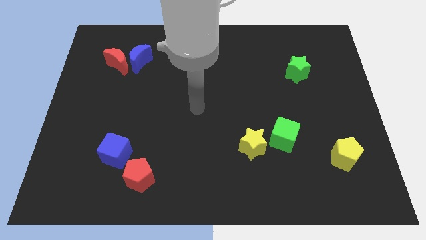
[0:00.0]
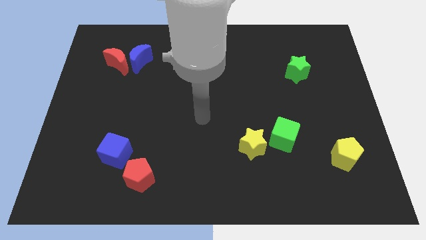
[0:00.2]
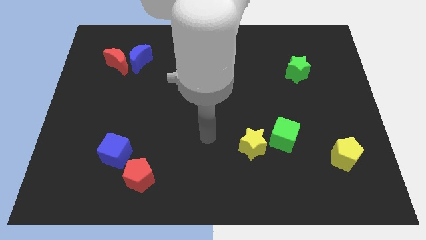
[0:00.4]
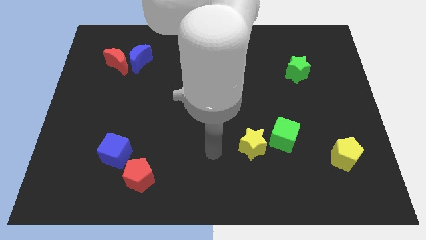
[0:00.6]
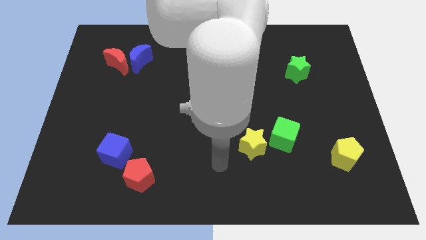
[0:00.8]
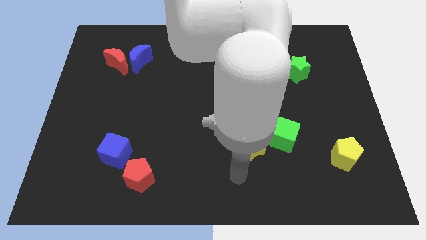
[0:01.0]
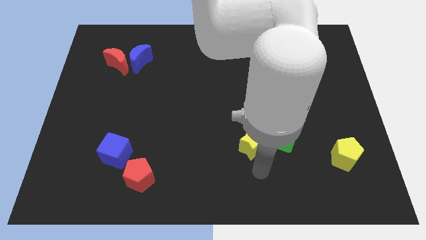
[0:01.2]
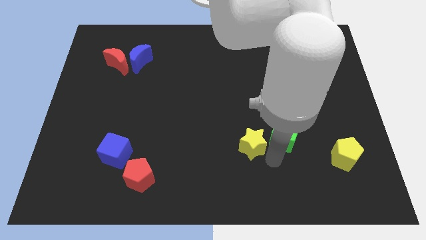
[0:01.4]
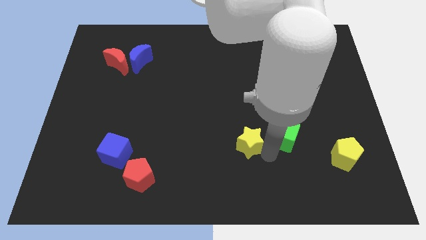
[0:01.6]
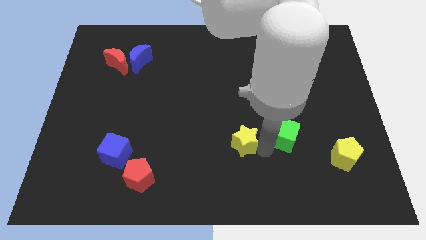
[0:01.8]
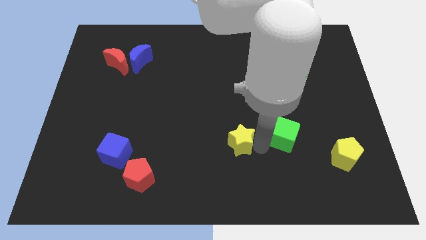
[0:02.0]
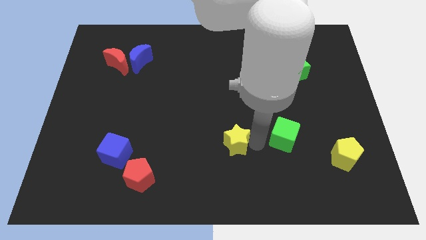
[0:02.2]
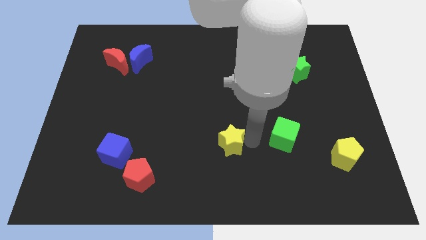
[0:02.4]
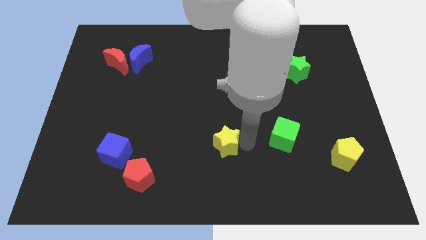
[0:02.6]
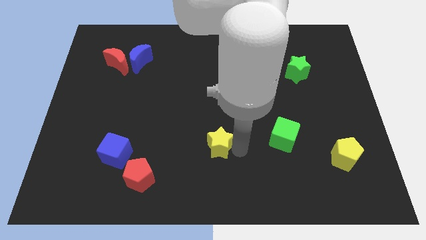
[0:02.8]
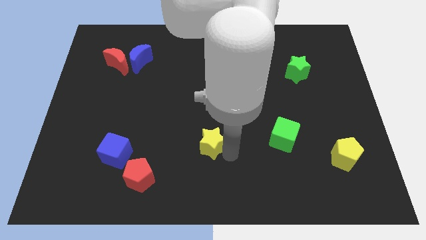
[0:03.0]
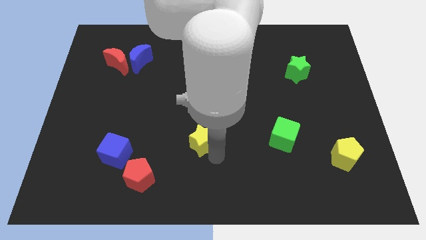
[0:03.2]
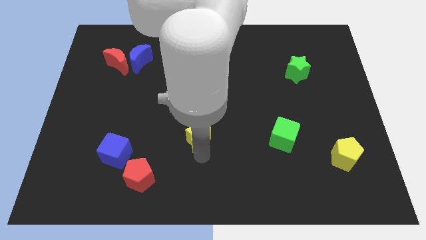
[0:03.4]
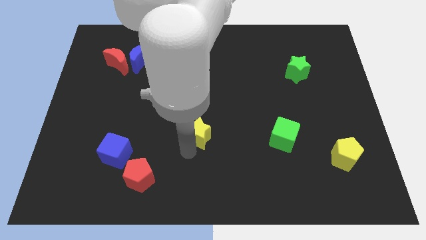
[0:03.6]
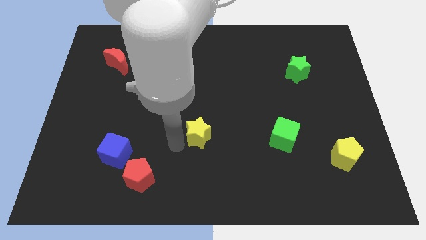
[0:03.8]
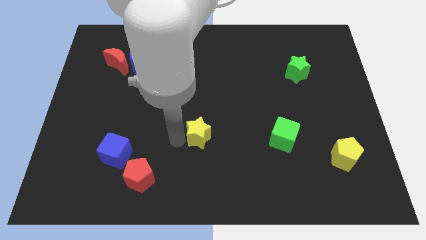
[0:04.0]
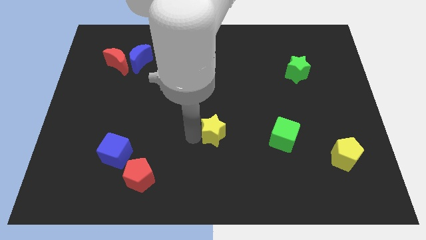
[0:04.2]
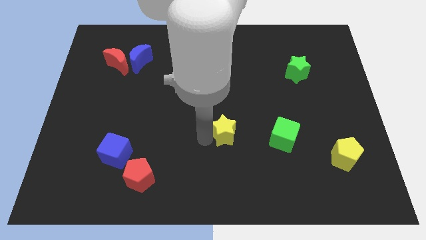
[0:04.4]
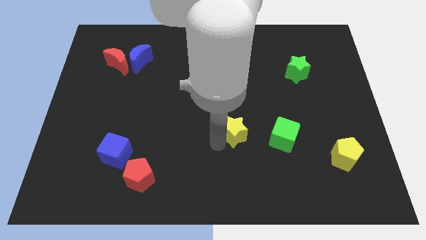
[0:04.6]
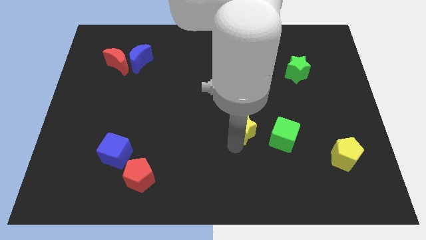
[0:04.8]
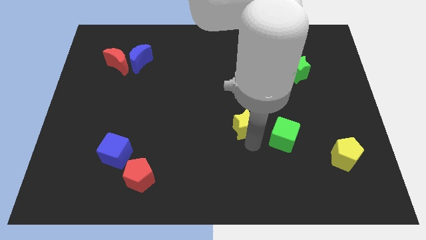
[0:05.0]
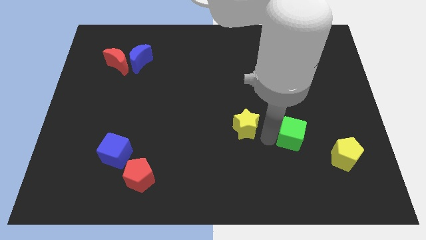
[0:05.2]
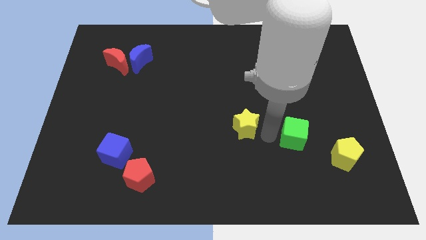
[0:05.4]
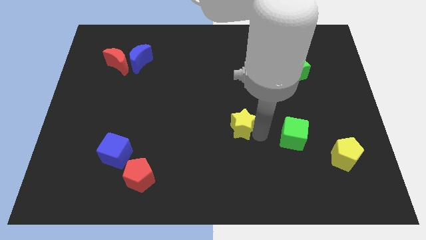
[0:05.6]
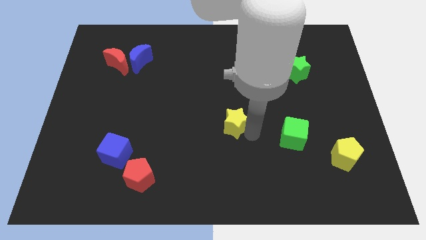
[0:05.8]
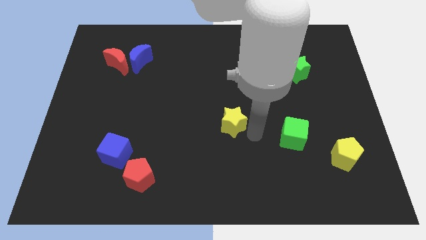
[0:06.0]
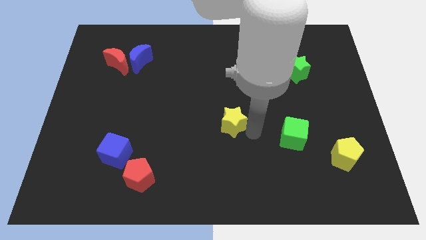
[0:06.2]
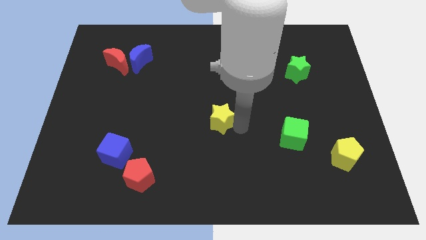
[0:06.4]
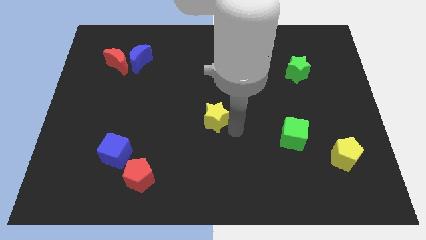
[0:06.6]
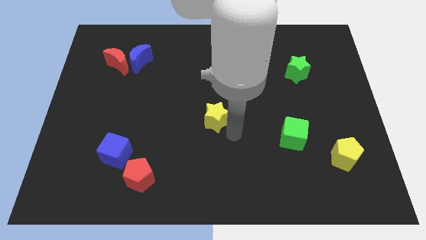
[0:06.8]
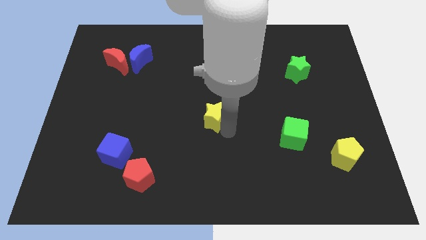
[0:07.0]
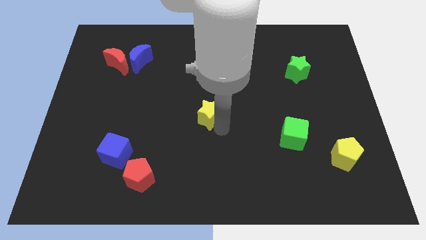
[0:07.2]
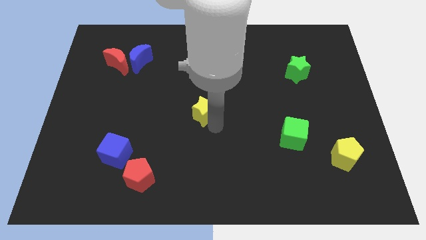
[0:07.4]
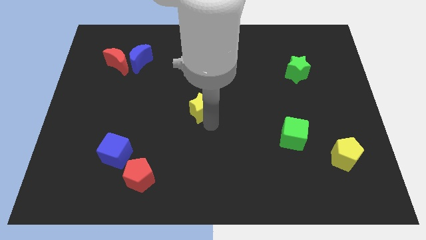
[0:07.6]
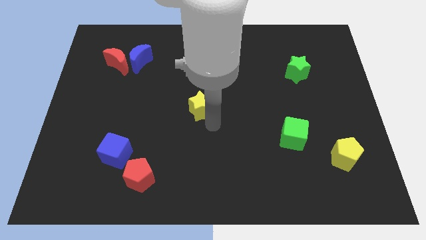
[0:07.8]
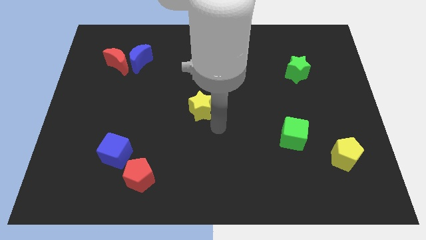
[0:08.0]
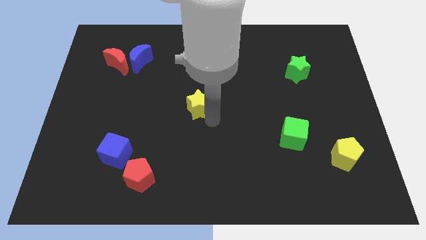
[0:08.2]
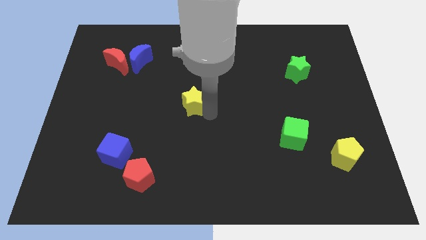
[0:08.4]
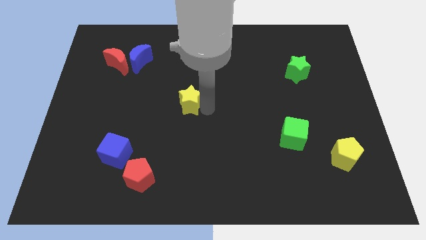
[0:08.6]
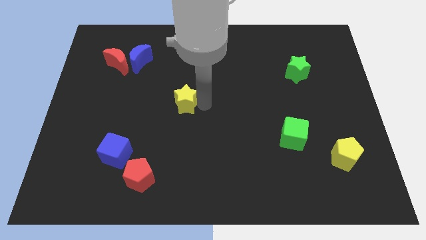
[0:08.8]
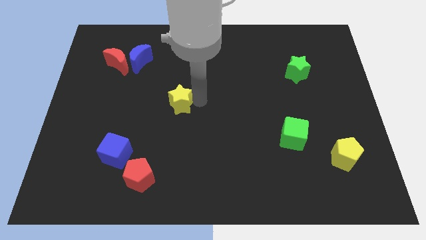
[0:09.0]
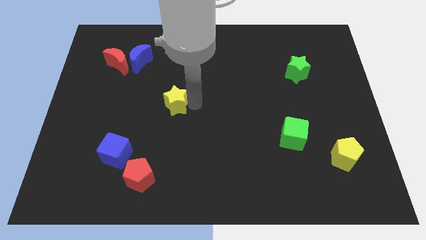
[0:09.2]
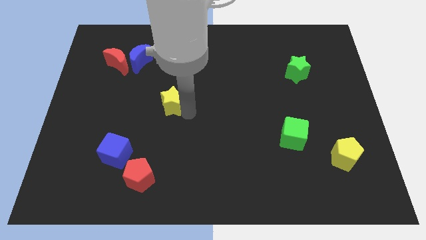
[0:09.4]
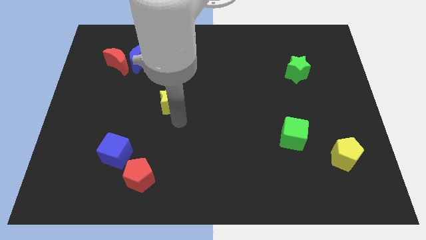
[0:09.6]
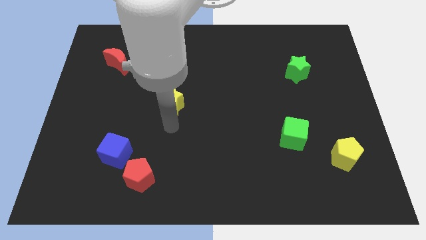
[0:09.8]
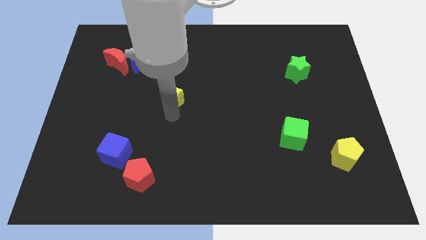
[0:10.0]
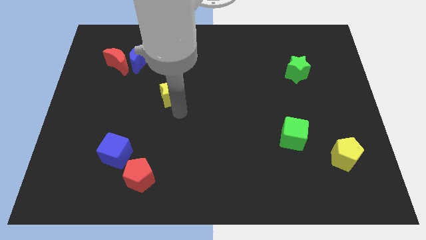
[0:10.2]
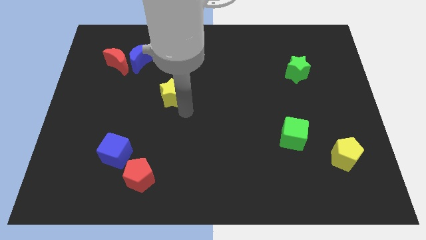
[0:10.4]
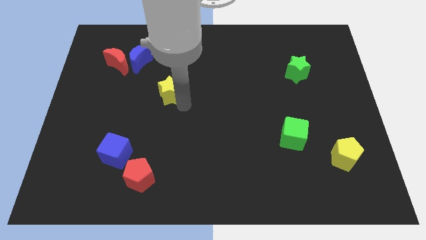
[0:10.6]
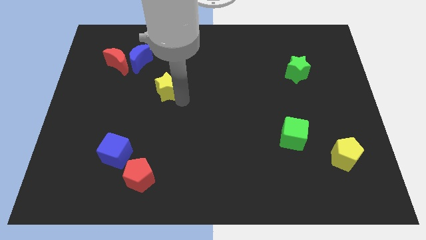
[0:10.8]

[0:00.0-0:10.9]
slide the yellow star diagonally down and to the right of the blue moon

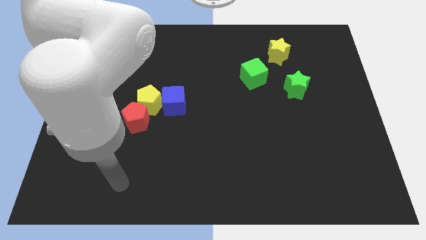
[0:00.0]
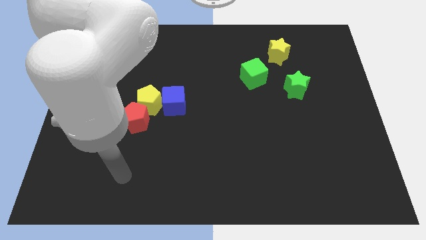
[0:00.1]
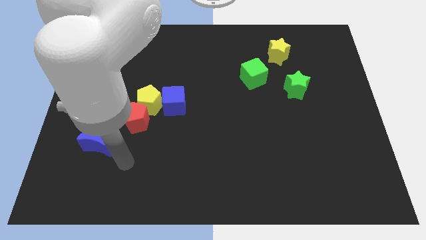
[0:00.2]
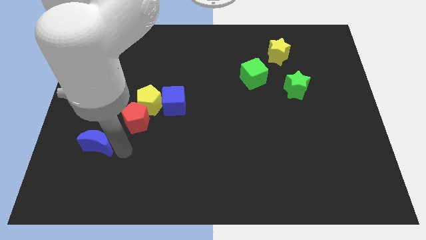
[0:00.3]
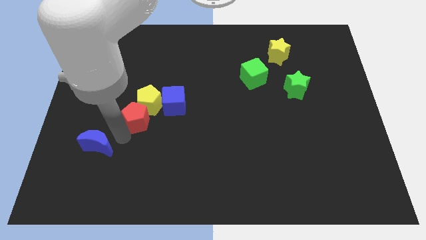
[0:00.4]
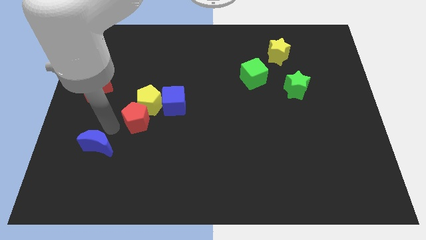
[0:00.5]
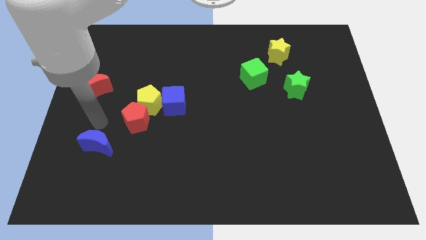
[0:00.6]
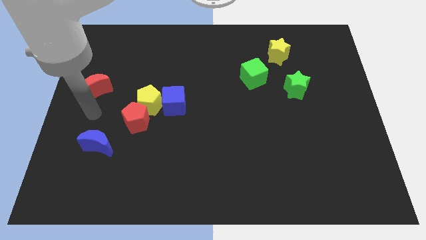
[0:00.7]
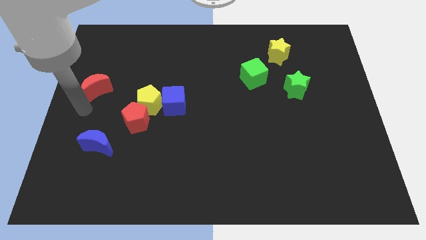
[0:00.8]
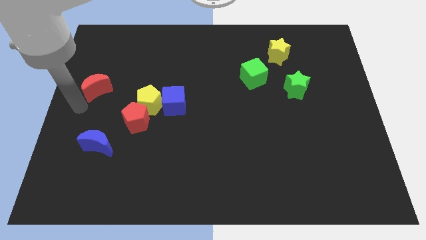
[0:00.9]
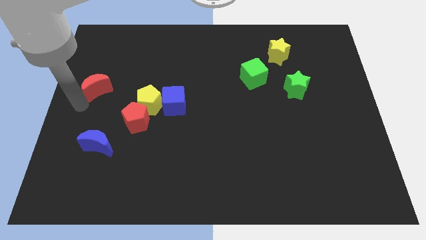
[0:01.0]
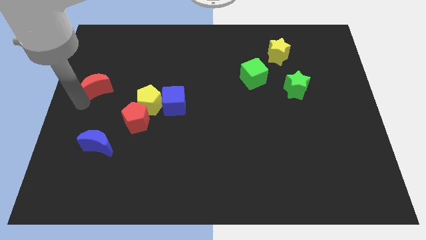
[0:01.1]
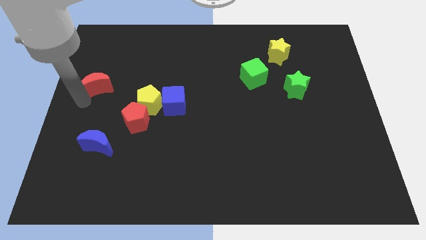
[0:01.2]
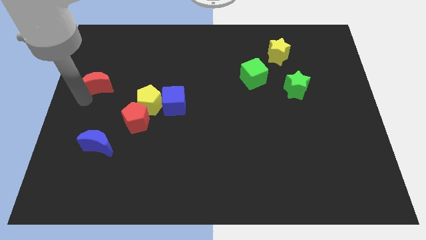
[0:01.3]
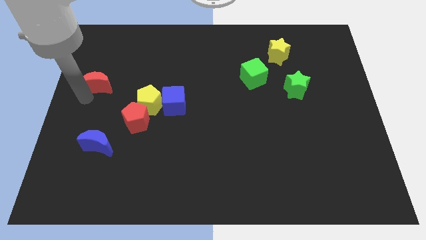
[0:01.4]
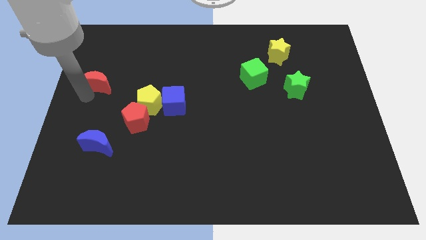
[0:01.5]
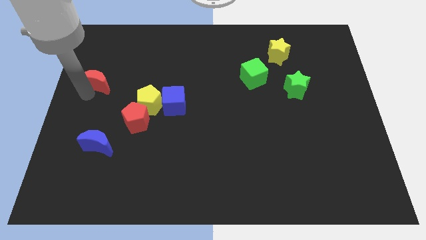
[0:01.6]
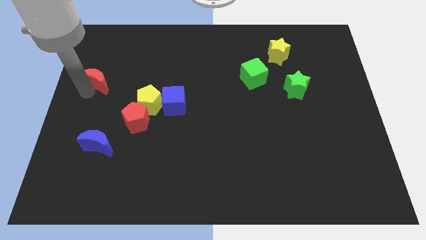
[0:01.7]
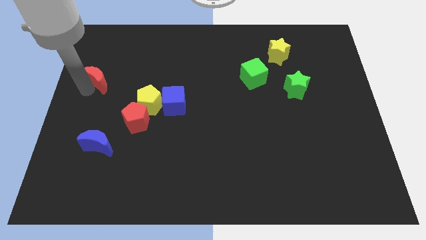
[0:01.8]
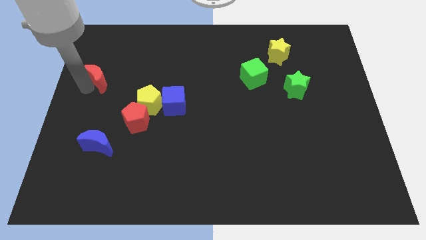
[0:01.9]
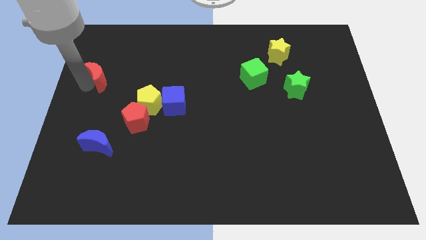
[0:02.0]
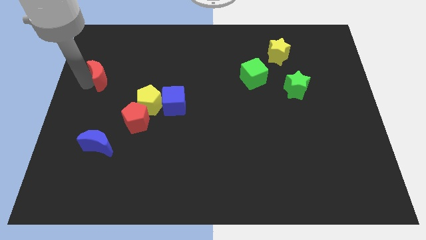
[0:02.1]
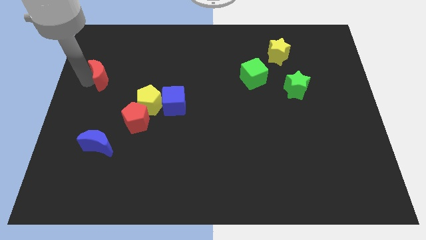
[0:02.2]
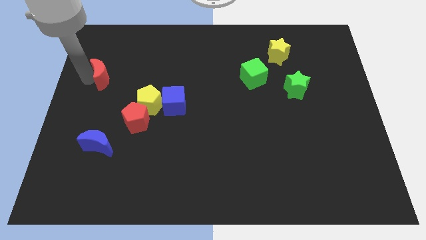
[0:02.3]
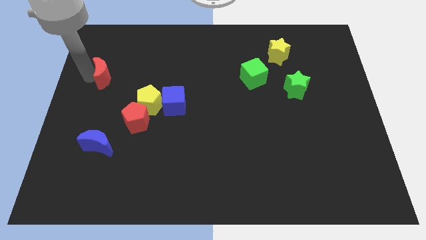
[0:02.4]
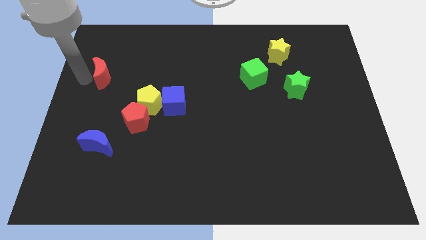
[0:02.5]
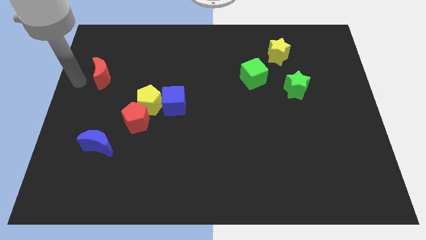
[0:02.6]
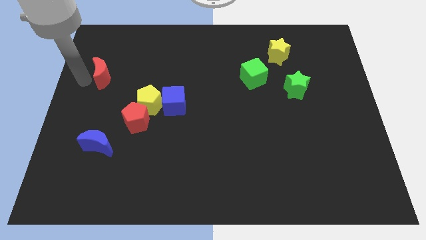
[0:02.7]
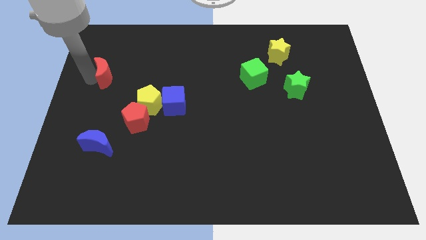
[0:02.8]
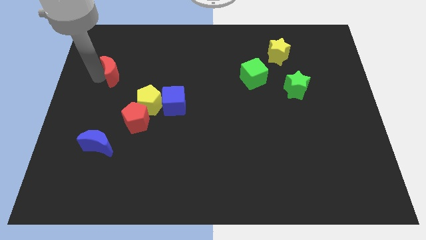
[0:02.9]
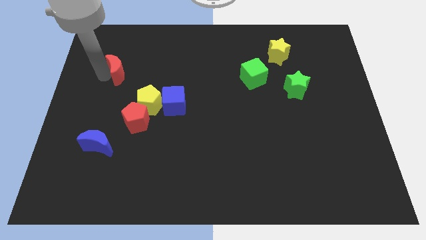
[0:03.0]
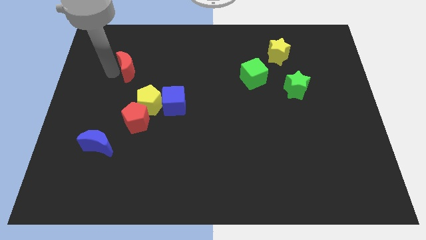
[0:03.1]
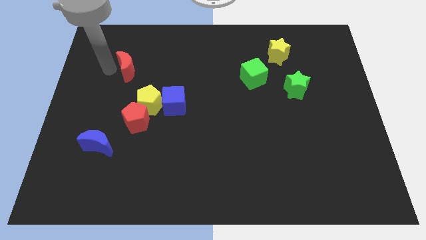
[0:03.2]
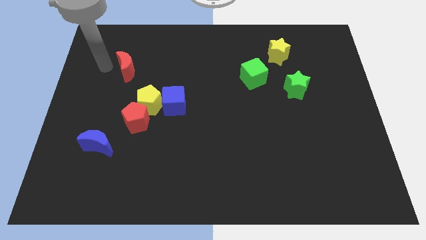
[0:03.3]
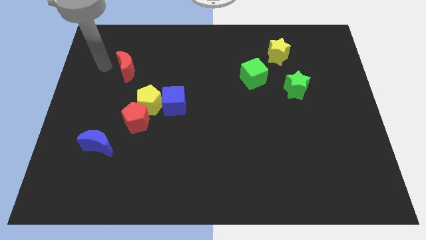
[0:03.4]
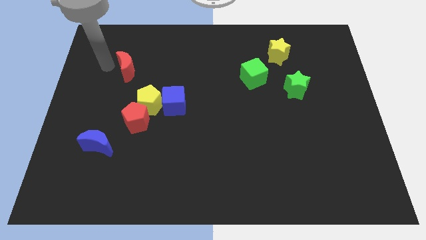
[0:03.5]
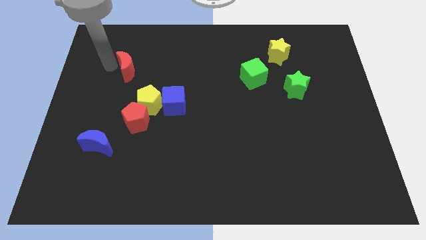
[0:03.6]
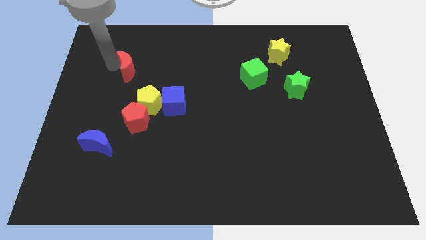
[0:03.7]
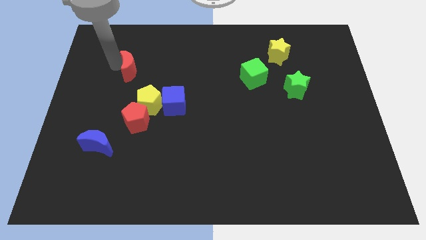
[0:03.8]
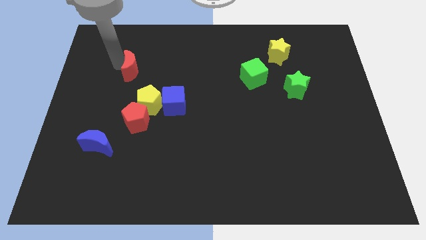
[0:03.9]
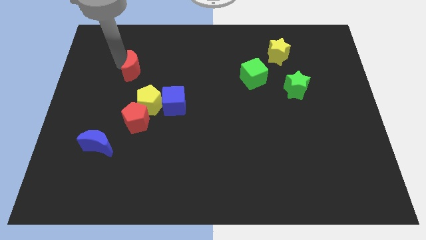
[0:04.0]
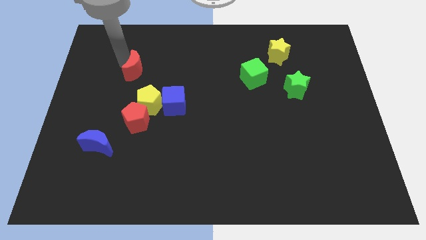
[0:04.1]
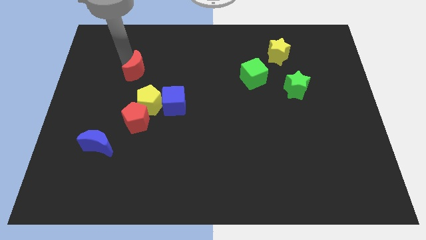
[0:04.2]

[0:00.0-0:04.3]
slide the red moon to the top side of the yellow pentagon
